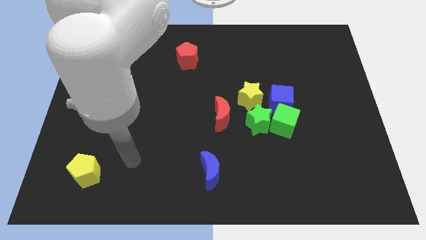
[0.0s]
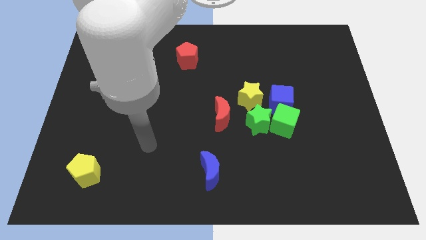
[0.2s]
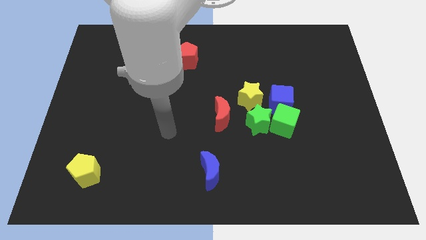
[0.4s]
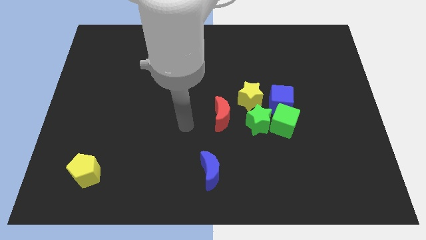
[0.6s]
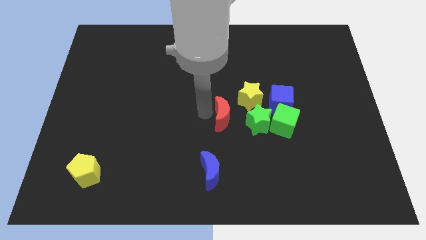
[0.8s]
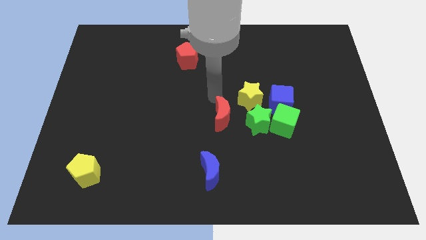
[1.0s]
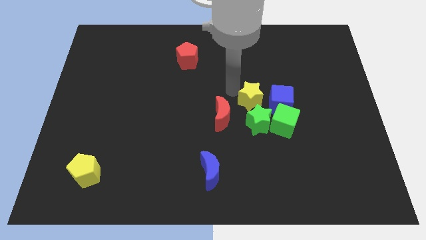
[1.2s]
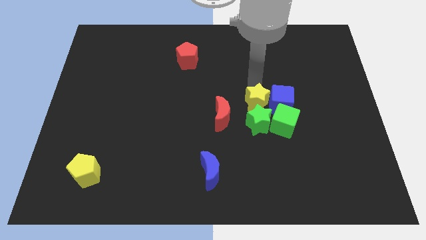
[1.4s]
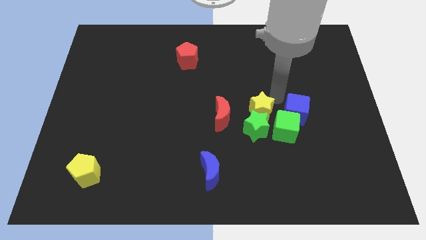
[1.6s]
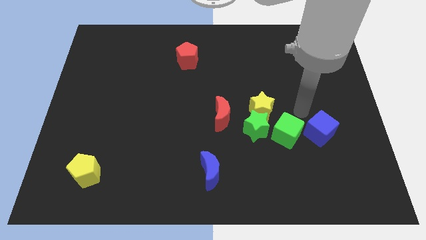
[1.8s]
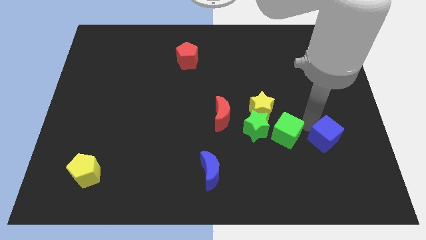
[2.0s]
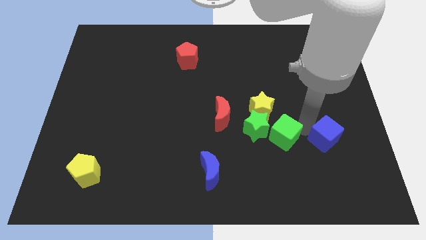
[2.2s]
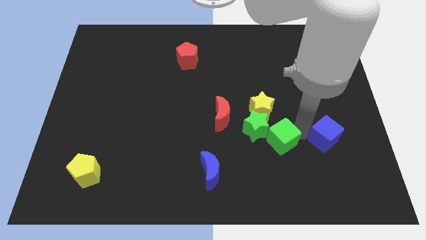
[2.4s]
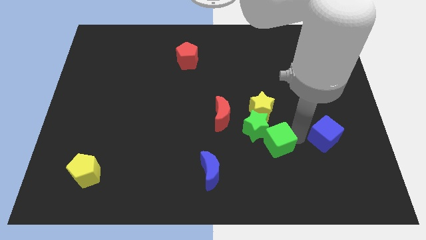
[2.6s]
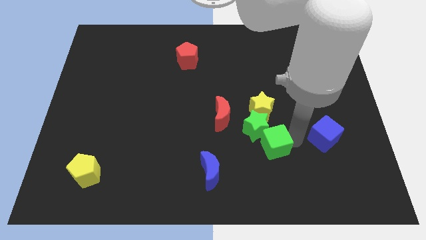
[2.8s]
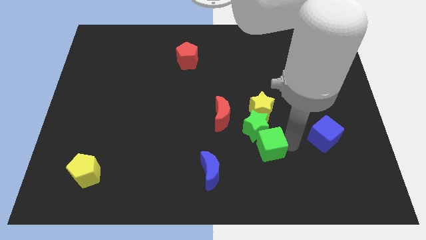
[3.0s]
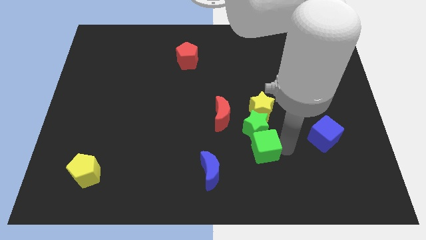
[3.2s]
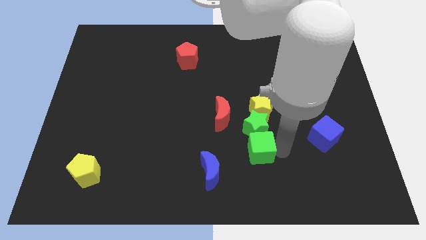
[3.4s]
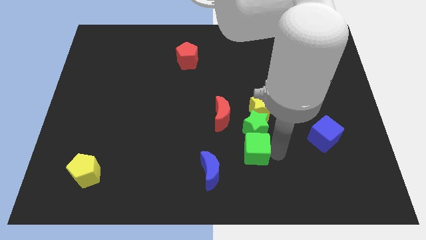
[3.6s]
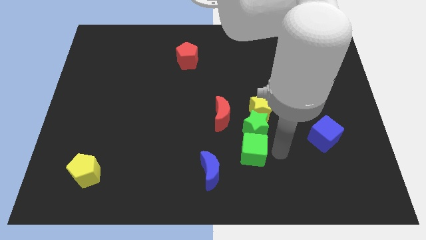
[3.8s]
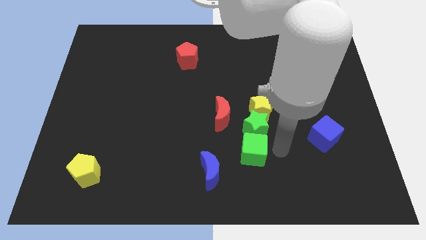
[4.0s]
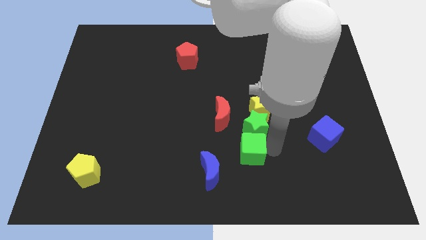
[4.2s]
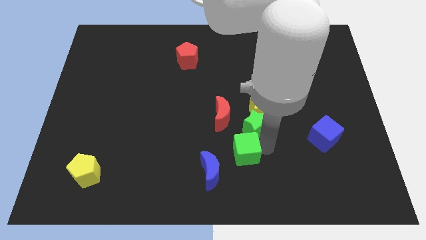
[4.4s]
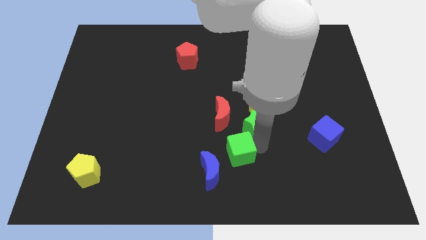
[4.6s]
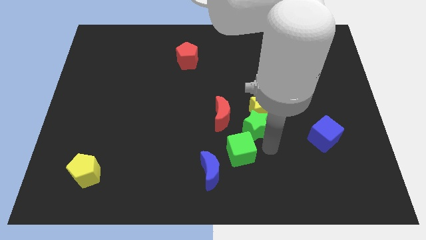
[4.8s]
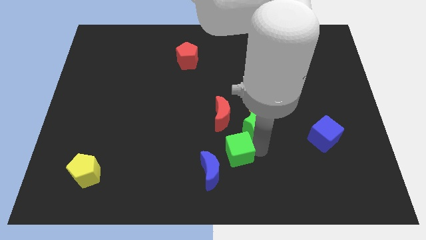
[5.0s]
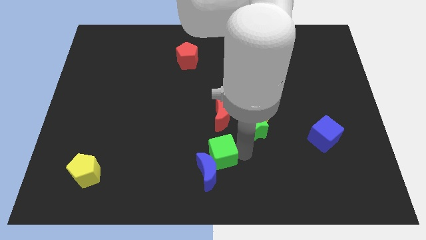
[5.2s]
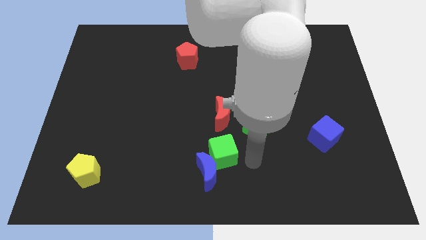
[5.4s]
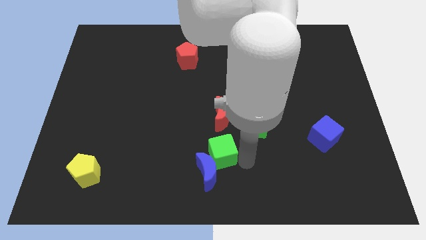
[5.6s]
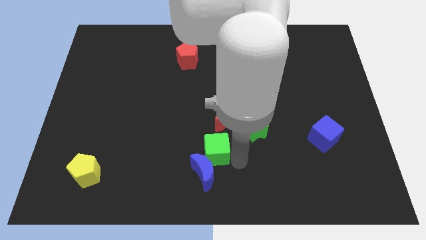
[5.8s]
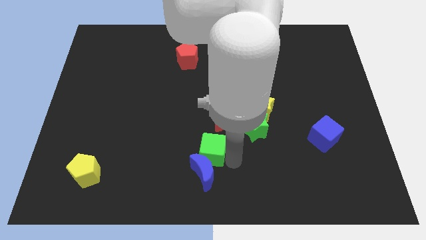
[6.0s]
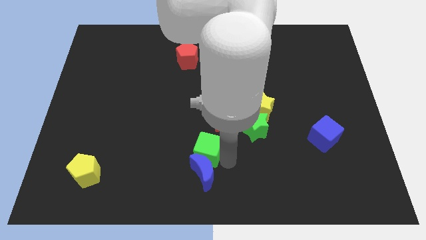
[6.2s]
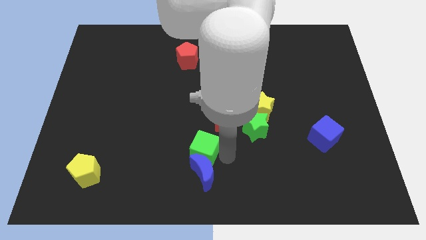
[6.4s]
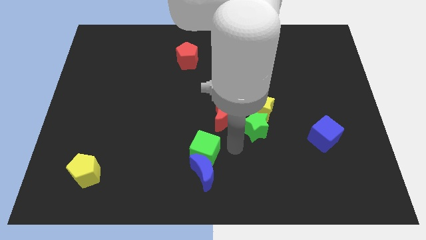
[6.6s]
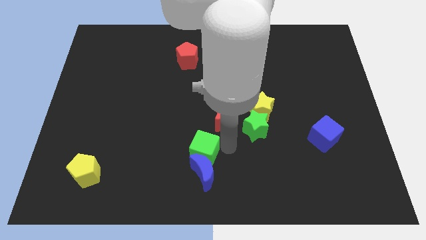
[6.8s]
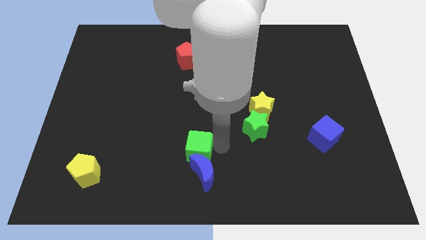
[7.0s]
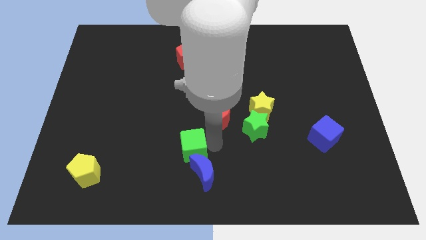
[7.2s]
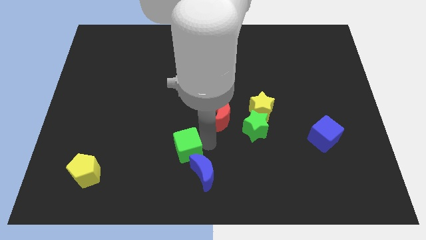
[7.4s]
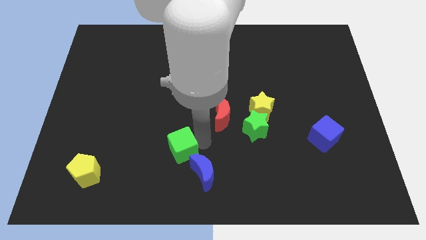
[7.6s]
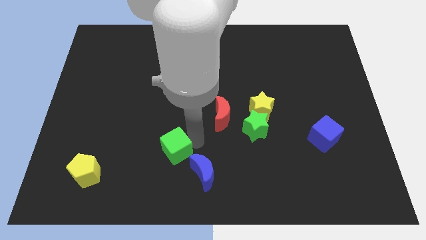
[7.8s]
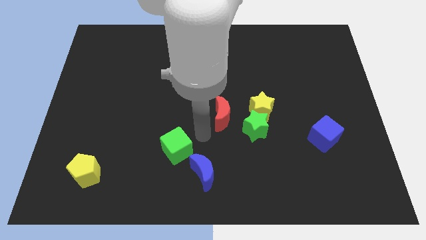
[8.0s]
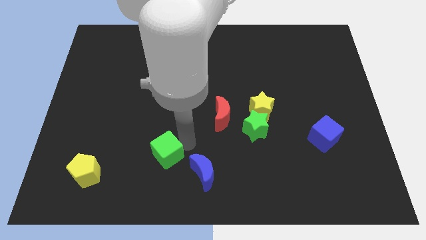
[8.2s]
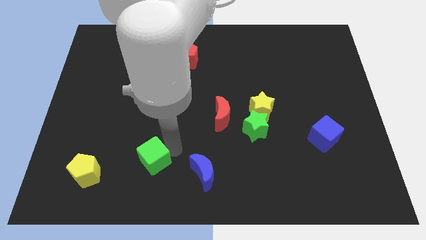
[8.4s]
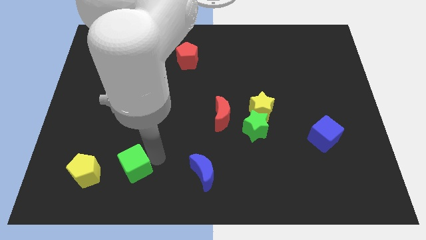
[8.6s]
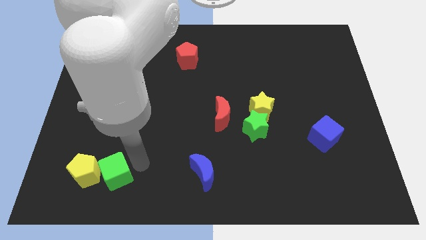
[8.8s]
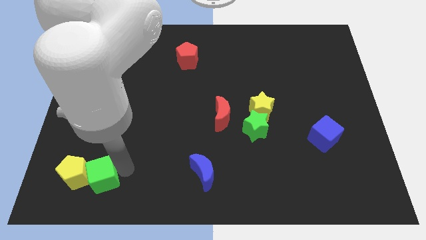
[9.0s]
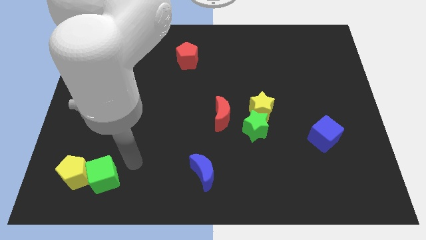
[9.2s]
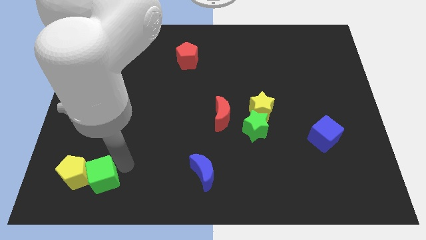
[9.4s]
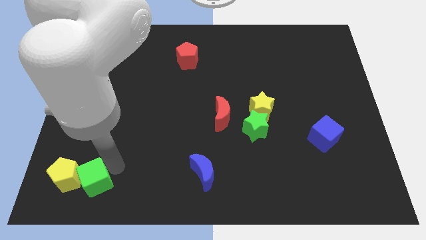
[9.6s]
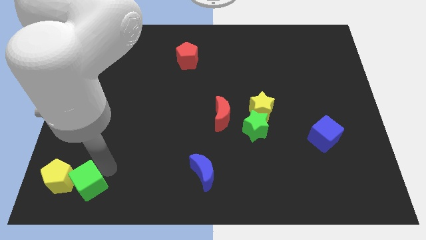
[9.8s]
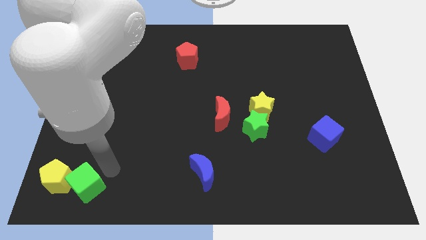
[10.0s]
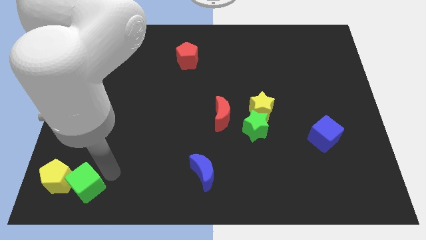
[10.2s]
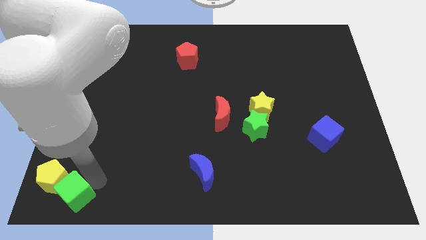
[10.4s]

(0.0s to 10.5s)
push the green cube to the bottom left

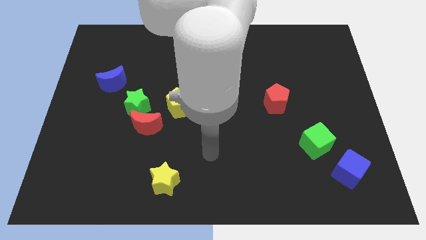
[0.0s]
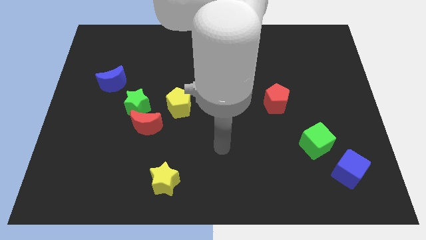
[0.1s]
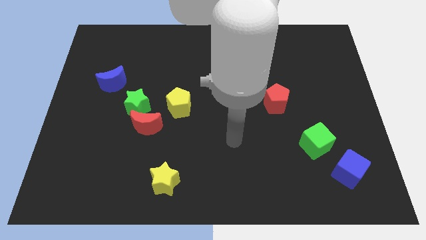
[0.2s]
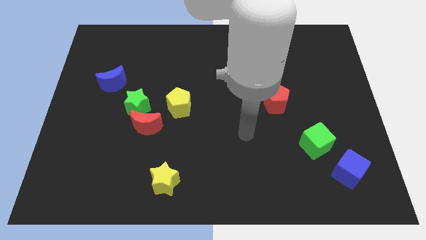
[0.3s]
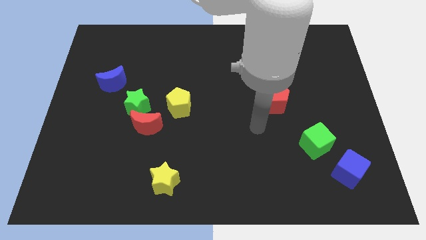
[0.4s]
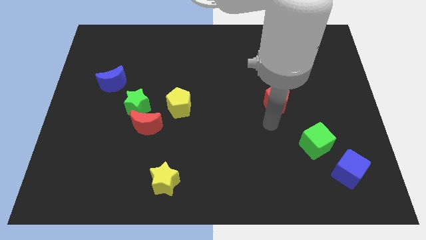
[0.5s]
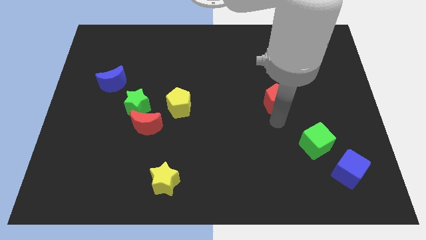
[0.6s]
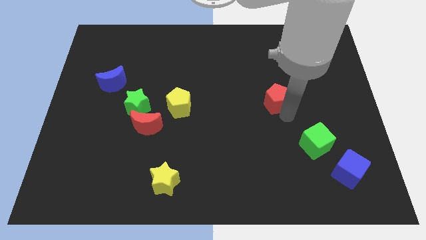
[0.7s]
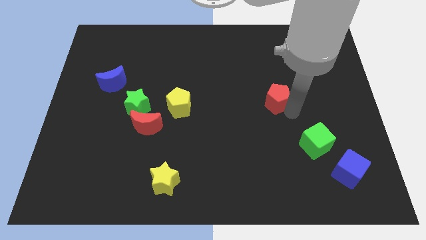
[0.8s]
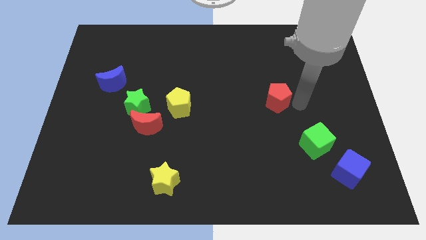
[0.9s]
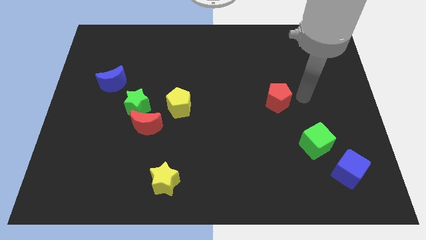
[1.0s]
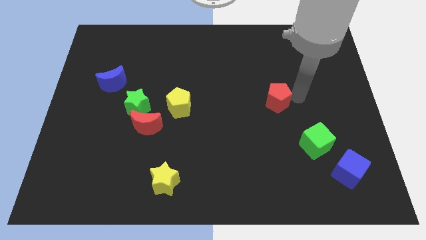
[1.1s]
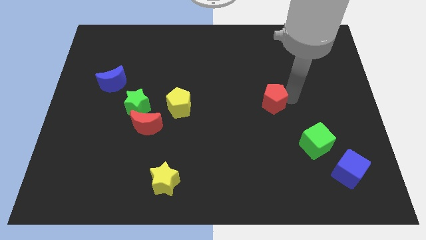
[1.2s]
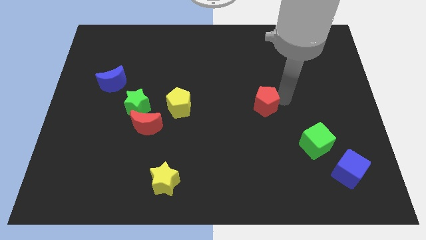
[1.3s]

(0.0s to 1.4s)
put the red pentagon to the center of the board
